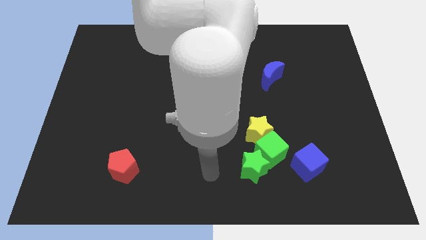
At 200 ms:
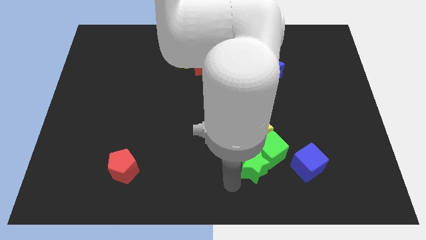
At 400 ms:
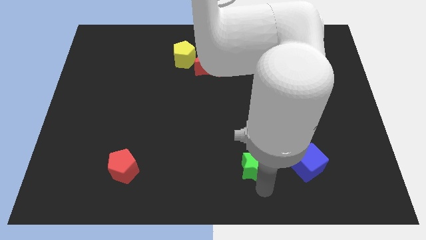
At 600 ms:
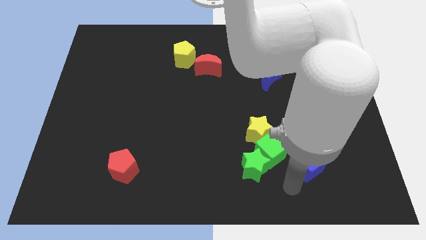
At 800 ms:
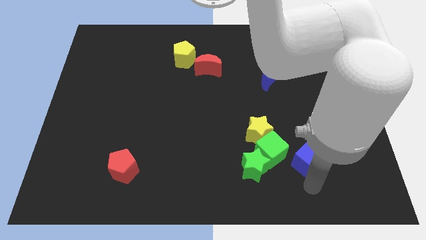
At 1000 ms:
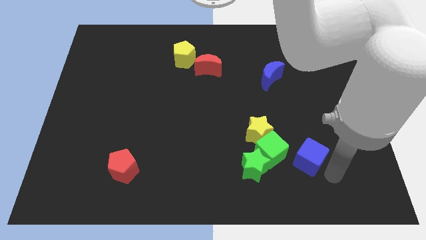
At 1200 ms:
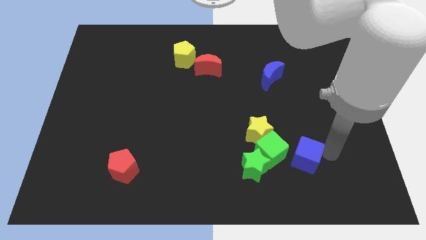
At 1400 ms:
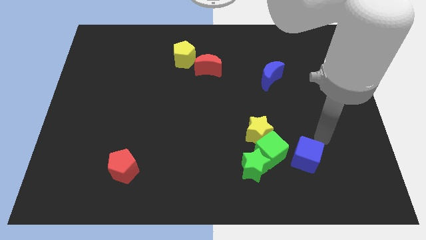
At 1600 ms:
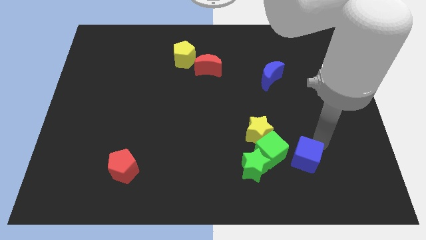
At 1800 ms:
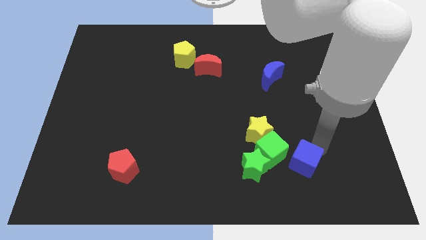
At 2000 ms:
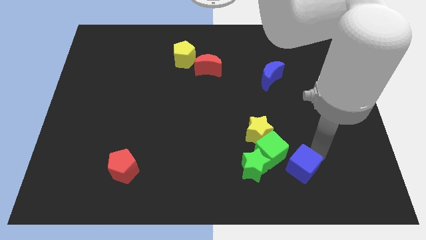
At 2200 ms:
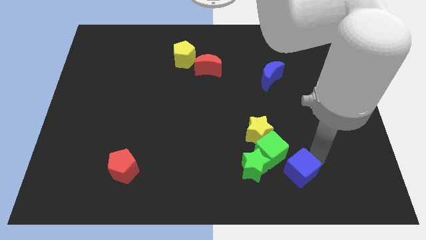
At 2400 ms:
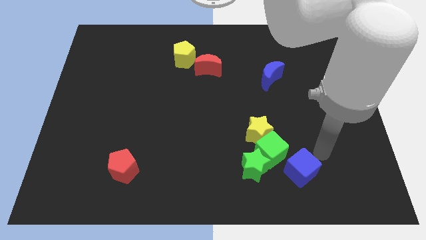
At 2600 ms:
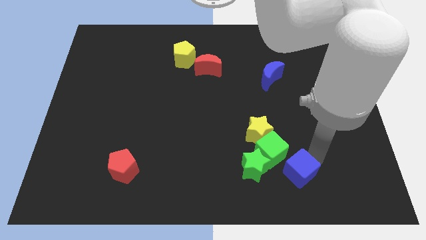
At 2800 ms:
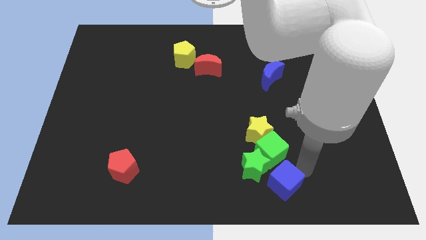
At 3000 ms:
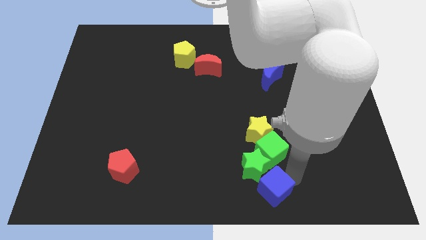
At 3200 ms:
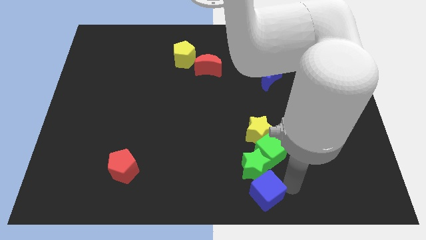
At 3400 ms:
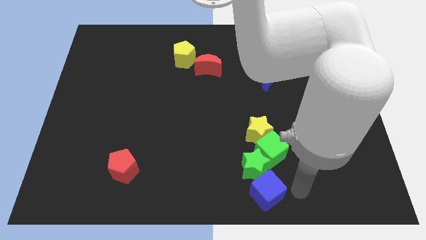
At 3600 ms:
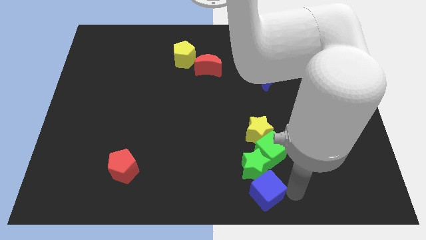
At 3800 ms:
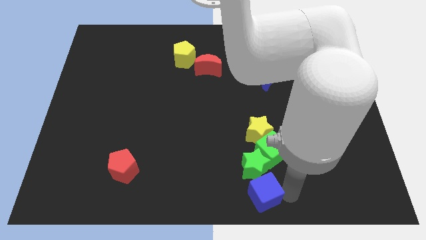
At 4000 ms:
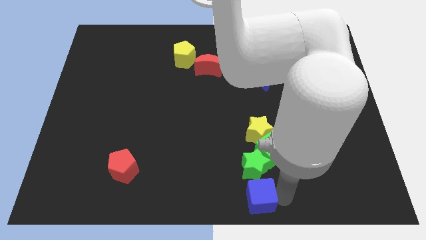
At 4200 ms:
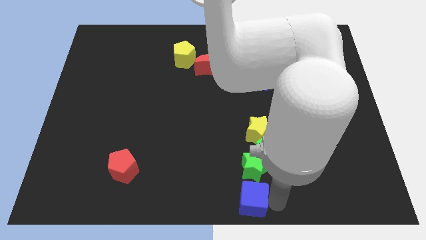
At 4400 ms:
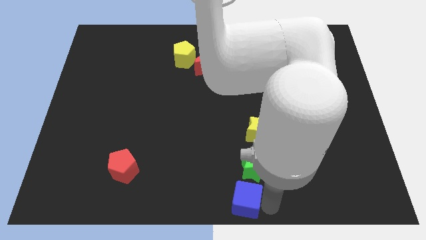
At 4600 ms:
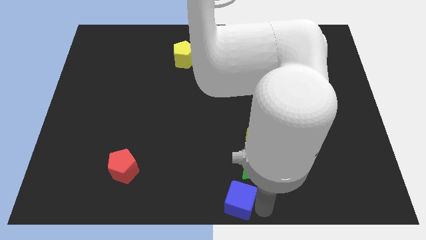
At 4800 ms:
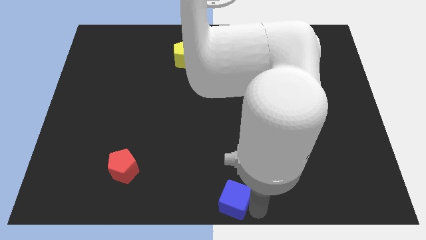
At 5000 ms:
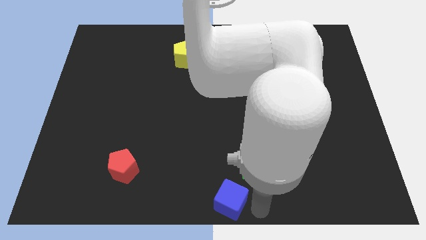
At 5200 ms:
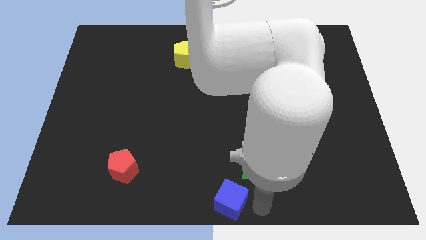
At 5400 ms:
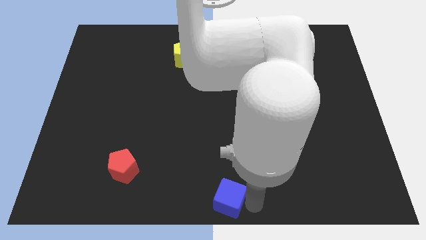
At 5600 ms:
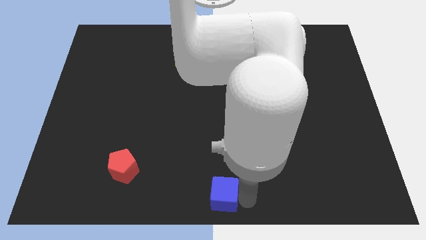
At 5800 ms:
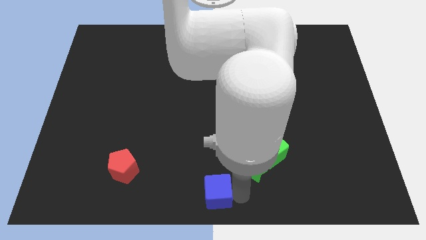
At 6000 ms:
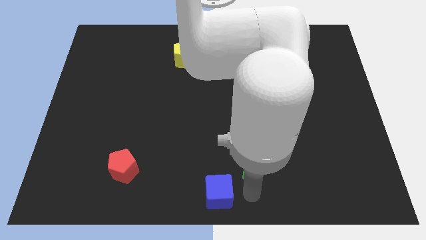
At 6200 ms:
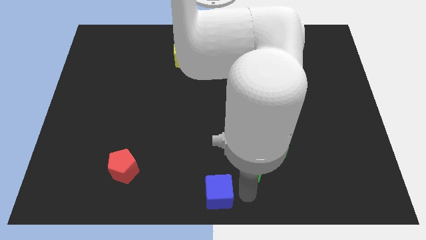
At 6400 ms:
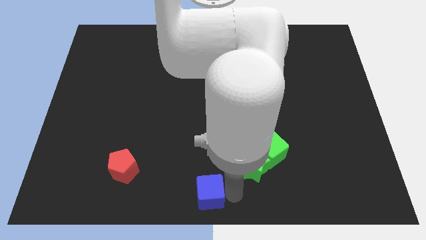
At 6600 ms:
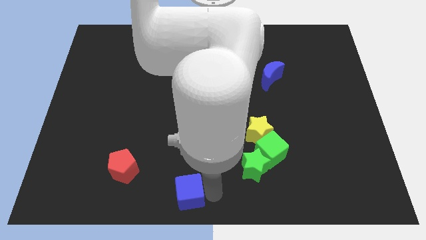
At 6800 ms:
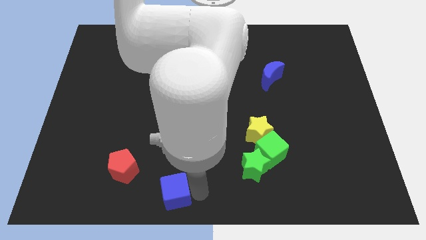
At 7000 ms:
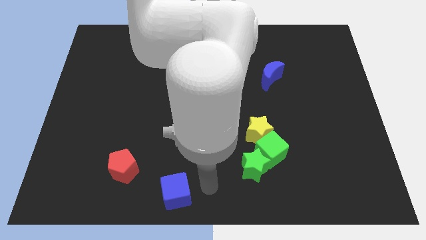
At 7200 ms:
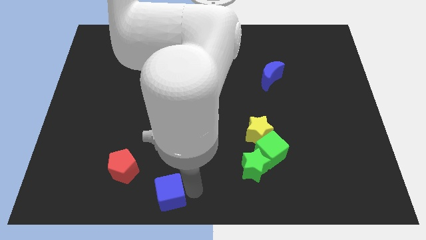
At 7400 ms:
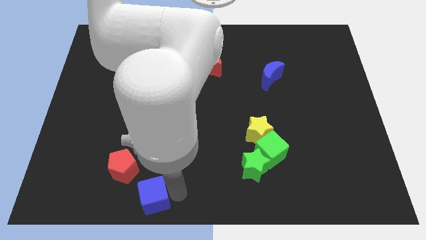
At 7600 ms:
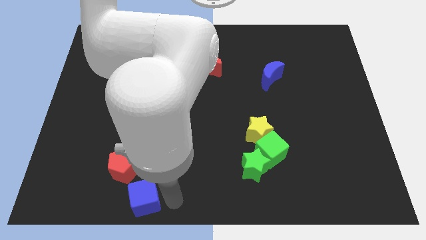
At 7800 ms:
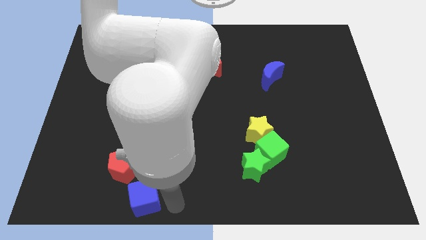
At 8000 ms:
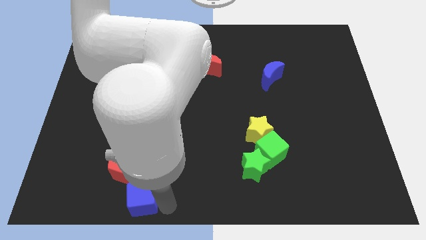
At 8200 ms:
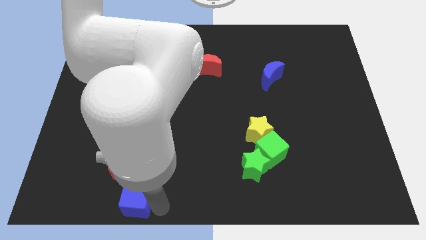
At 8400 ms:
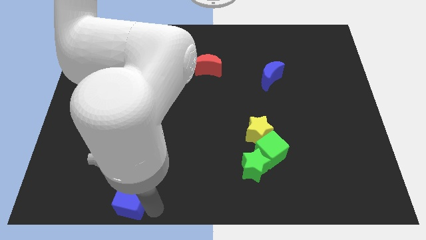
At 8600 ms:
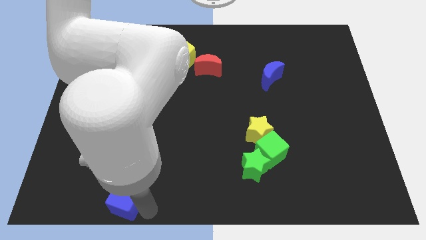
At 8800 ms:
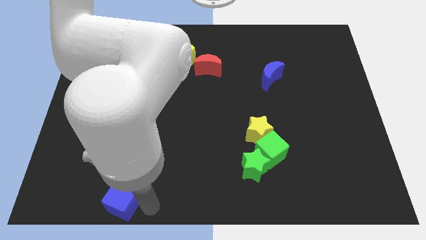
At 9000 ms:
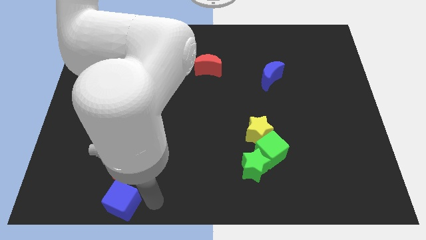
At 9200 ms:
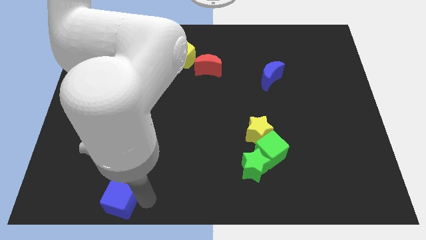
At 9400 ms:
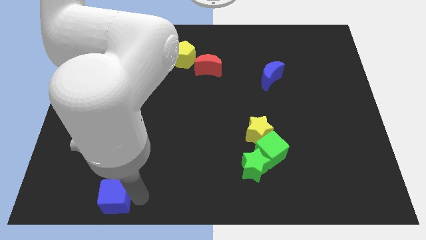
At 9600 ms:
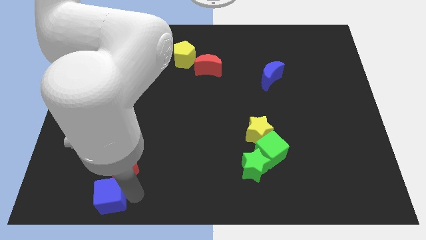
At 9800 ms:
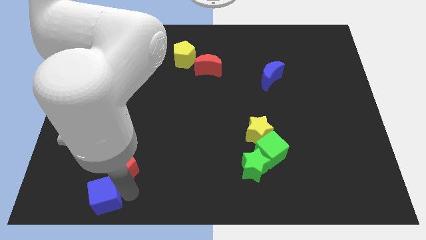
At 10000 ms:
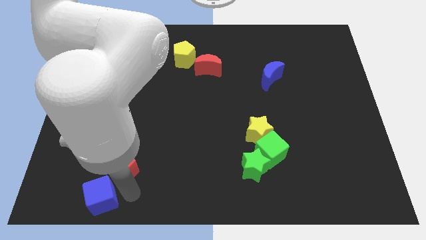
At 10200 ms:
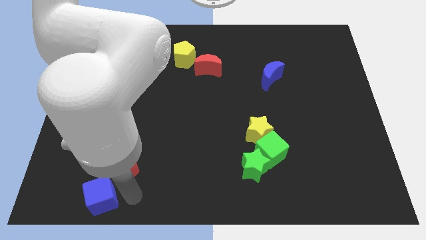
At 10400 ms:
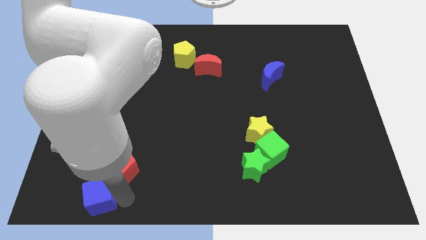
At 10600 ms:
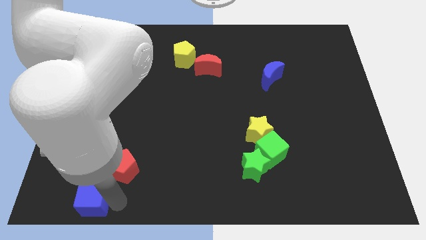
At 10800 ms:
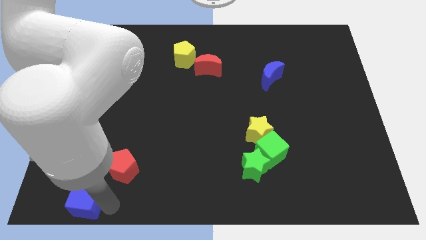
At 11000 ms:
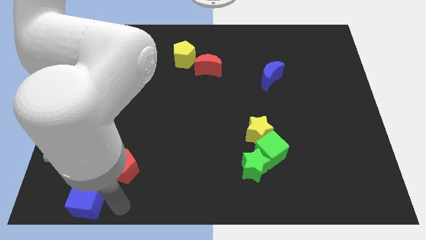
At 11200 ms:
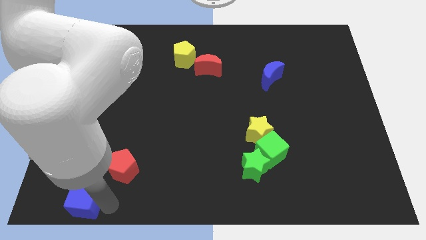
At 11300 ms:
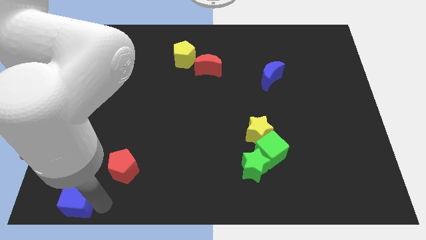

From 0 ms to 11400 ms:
push the blue cube to the lower left corner

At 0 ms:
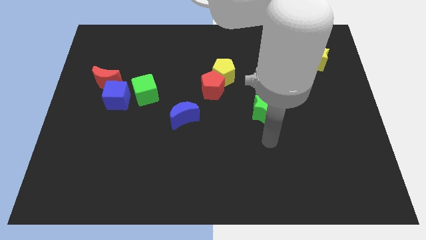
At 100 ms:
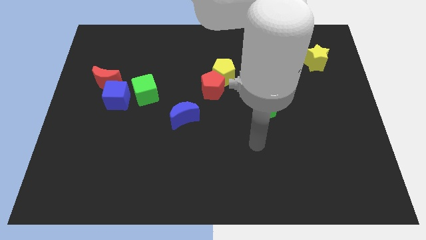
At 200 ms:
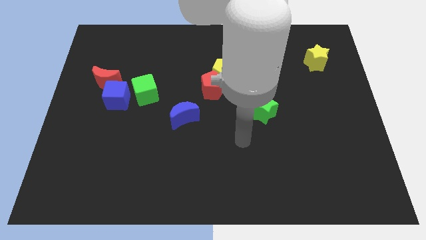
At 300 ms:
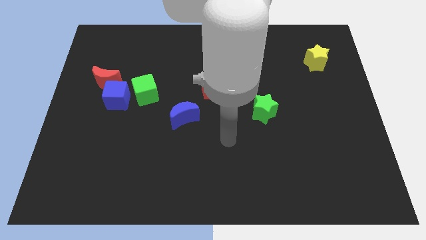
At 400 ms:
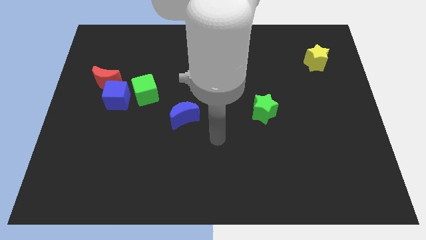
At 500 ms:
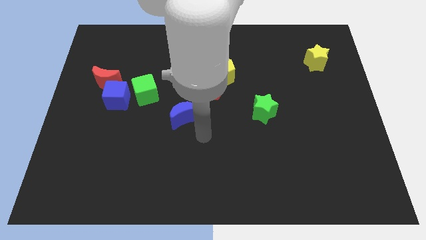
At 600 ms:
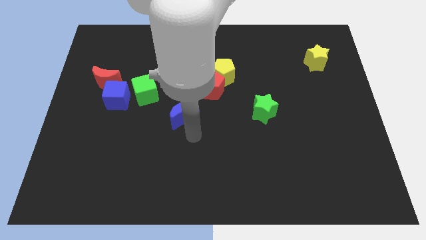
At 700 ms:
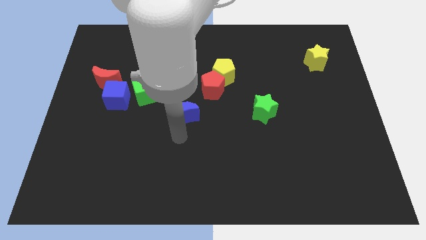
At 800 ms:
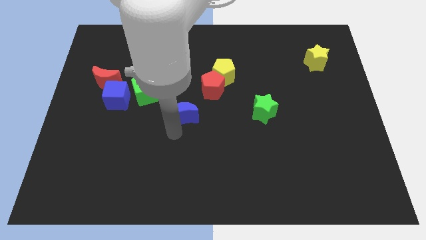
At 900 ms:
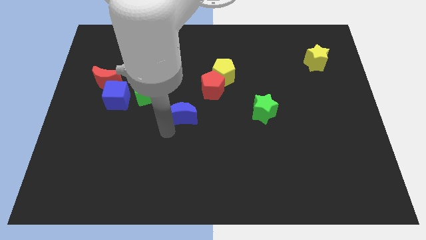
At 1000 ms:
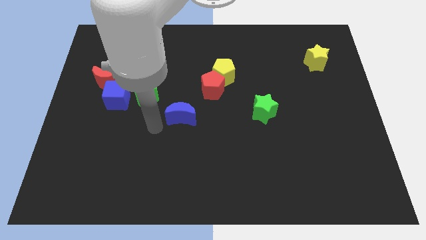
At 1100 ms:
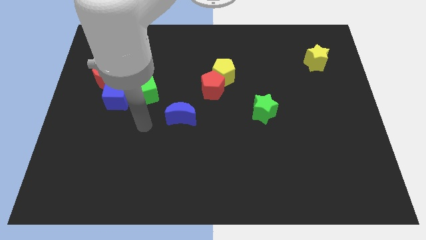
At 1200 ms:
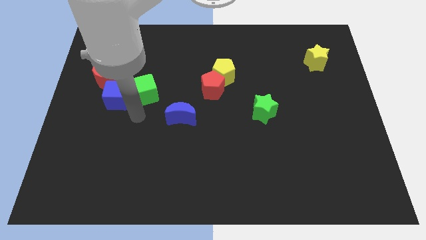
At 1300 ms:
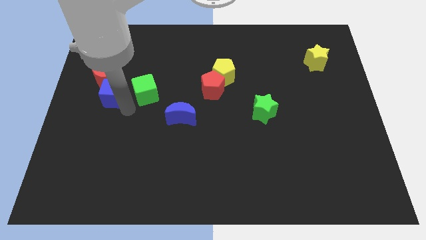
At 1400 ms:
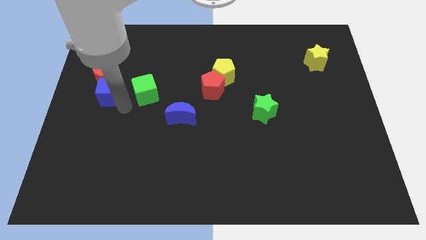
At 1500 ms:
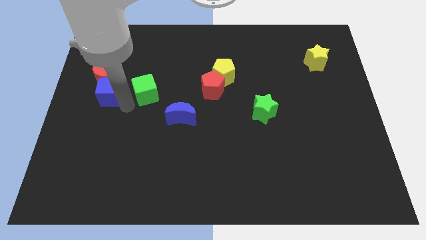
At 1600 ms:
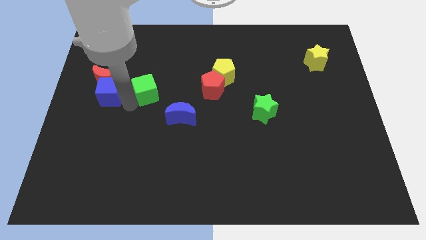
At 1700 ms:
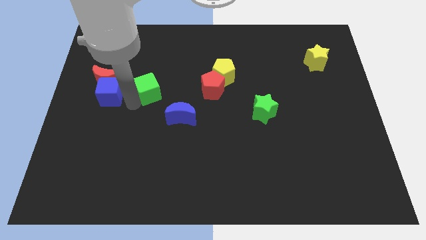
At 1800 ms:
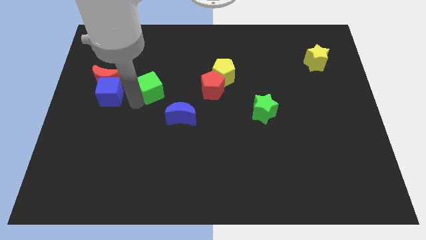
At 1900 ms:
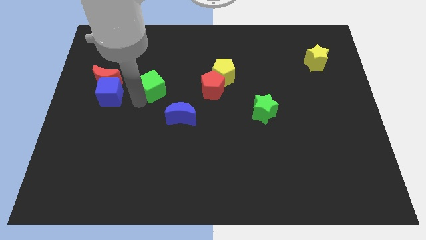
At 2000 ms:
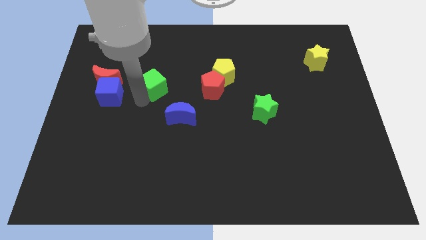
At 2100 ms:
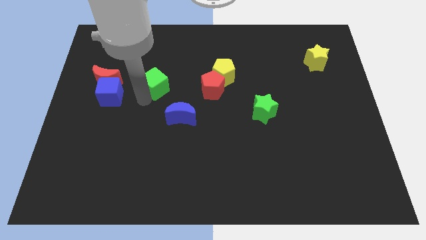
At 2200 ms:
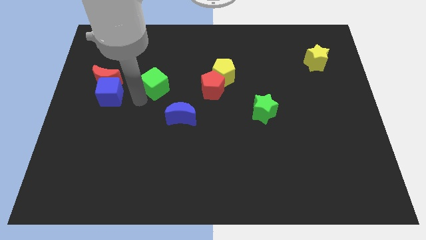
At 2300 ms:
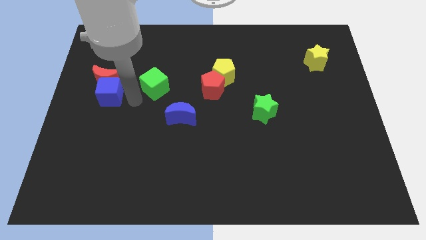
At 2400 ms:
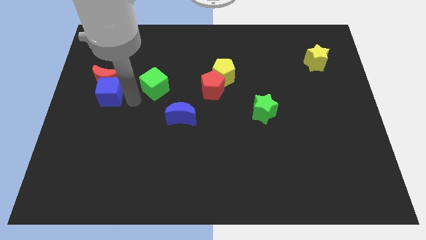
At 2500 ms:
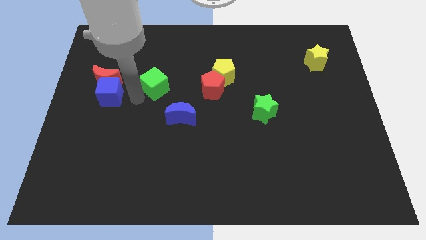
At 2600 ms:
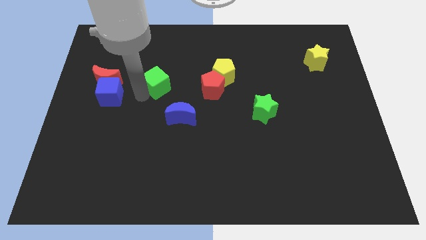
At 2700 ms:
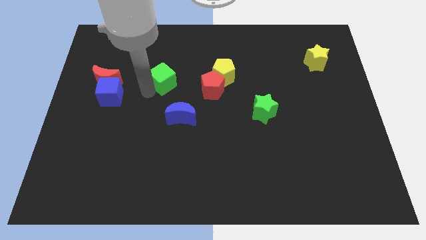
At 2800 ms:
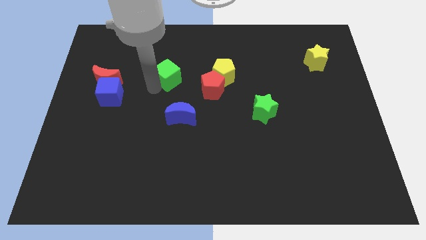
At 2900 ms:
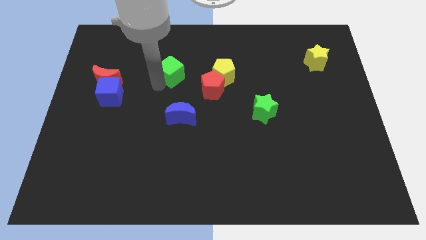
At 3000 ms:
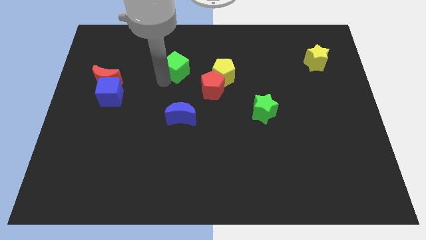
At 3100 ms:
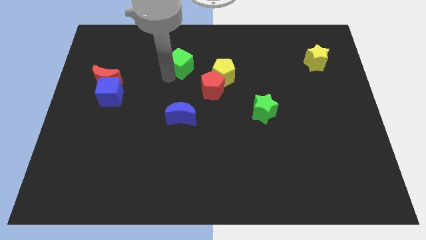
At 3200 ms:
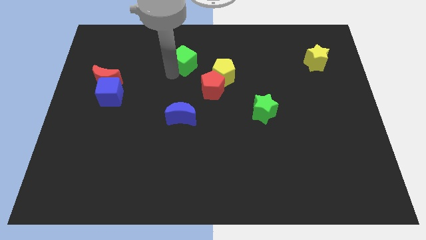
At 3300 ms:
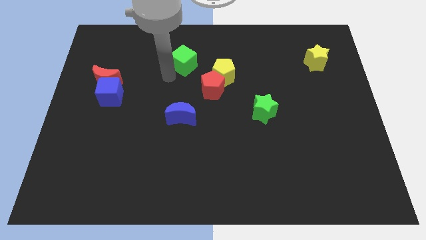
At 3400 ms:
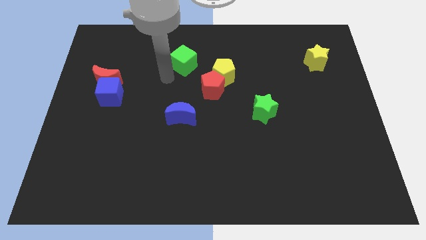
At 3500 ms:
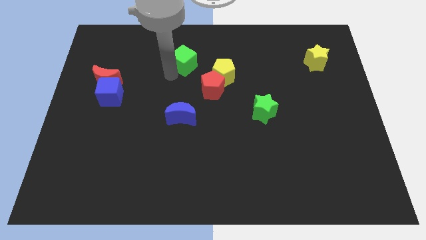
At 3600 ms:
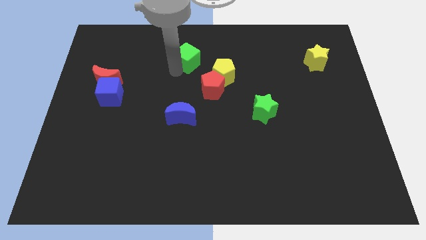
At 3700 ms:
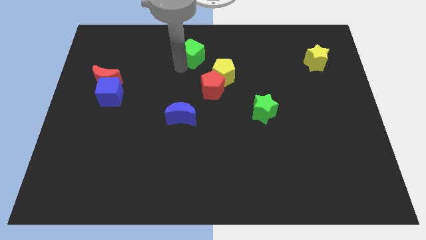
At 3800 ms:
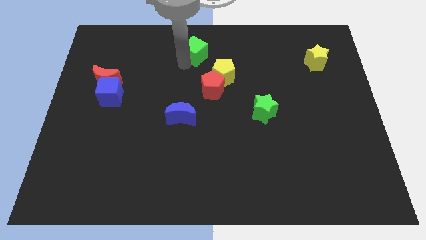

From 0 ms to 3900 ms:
push the green cube to the towards your base
